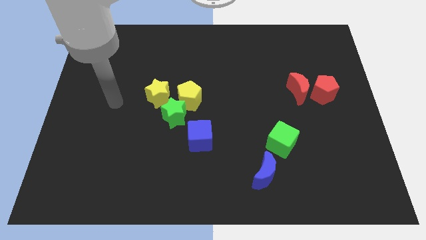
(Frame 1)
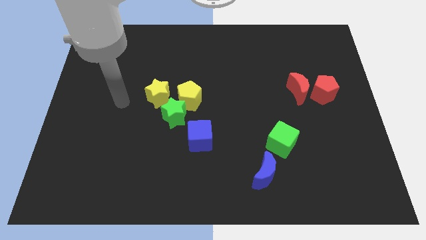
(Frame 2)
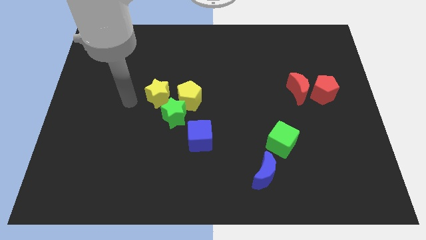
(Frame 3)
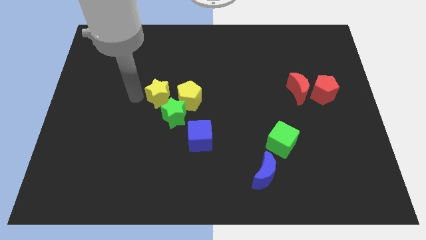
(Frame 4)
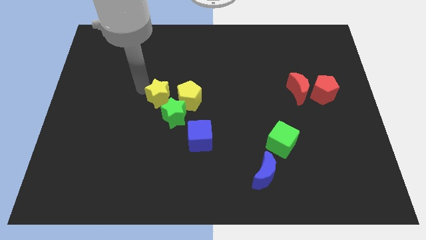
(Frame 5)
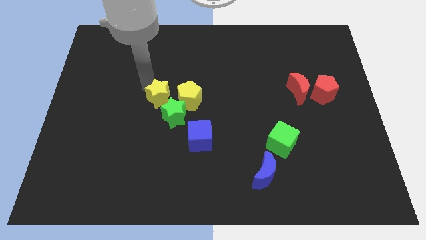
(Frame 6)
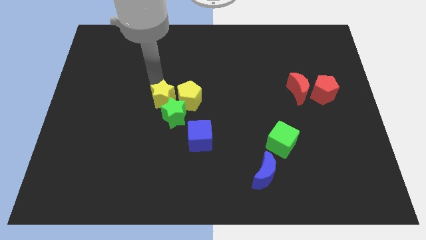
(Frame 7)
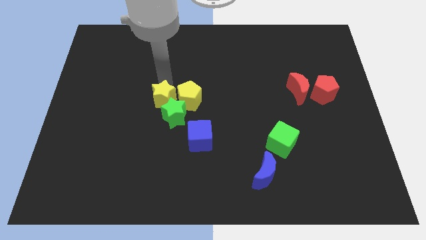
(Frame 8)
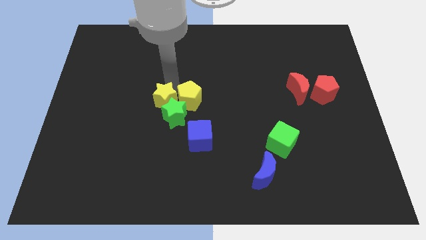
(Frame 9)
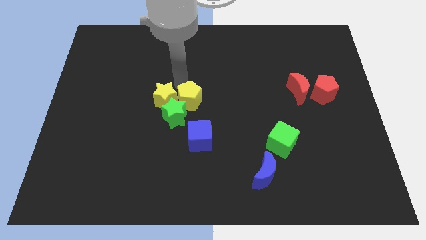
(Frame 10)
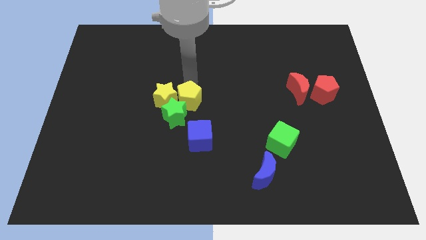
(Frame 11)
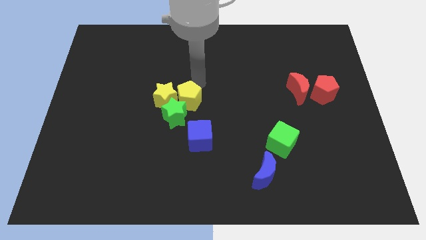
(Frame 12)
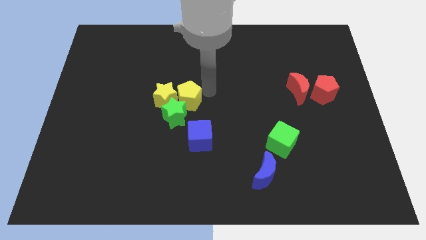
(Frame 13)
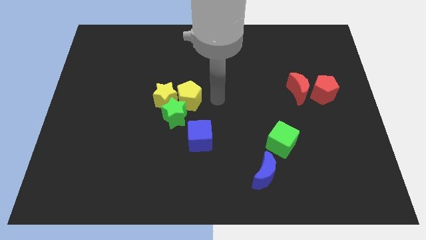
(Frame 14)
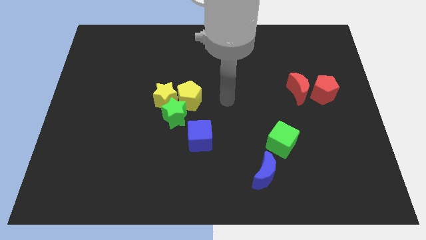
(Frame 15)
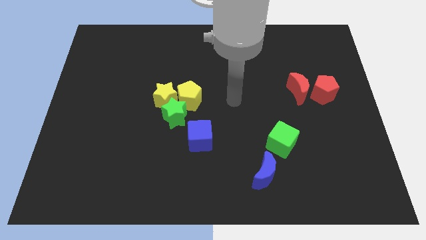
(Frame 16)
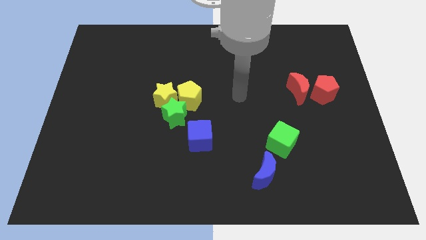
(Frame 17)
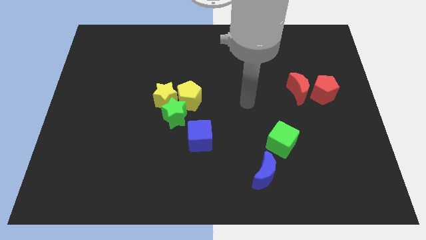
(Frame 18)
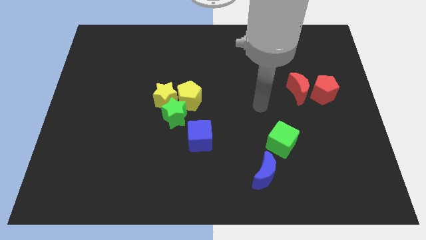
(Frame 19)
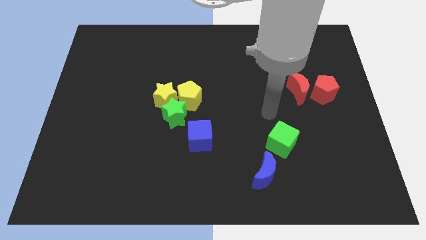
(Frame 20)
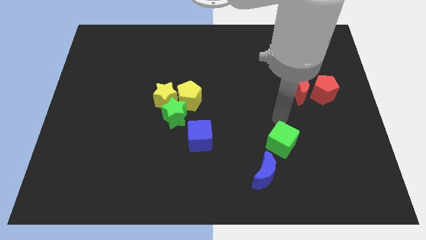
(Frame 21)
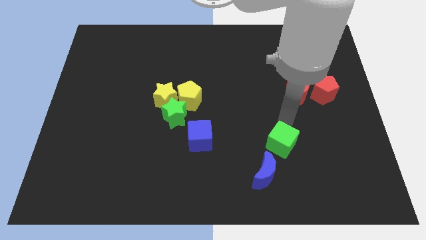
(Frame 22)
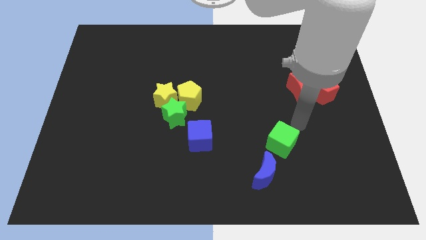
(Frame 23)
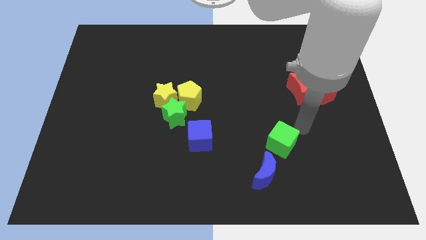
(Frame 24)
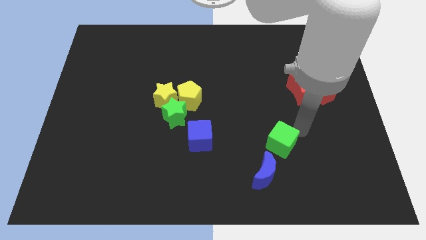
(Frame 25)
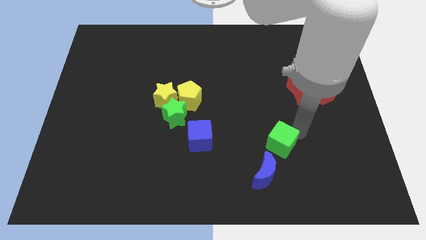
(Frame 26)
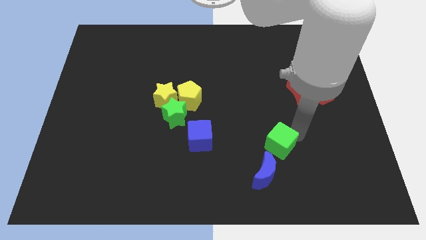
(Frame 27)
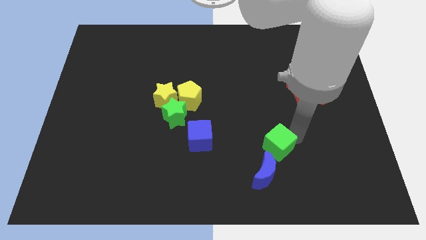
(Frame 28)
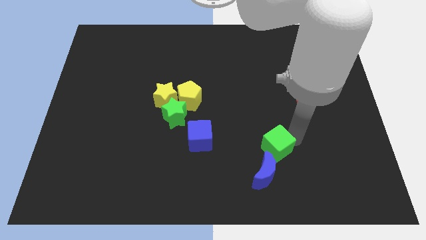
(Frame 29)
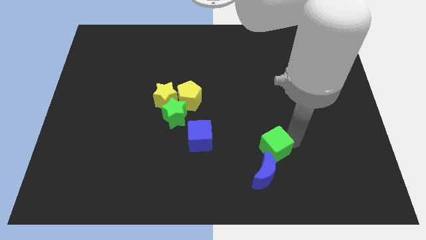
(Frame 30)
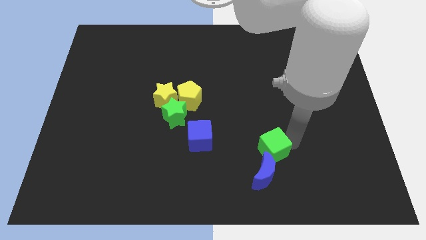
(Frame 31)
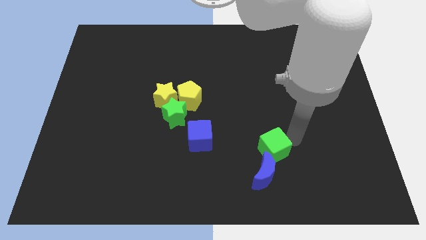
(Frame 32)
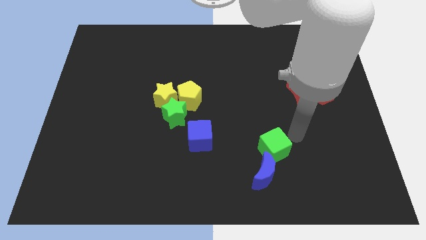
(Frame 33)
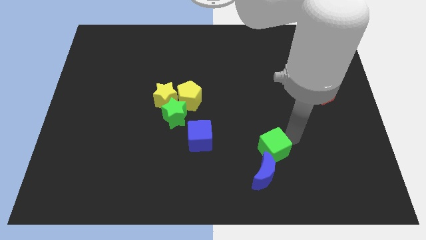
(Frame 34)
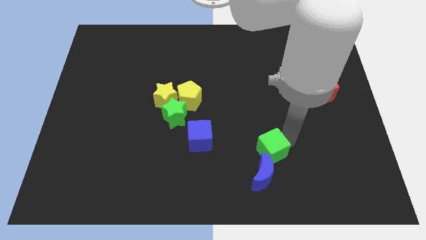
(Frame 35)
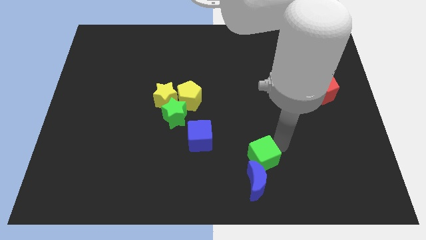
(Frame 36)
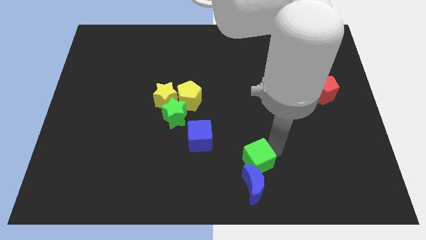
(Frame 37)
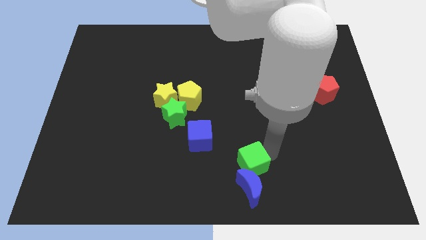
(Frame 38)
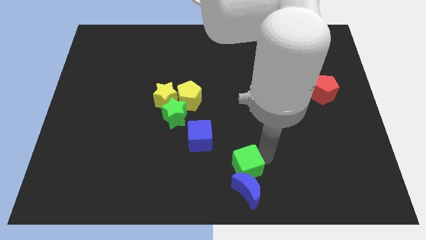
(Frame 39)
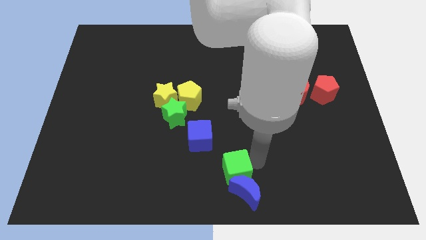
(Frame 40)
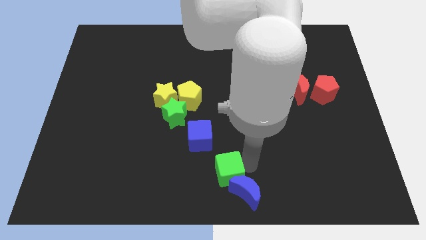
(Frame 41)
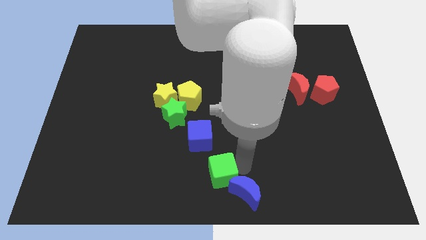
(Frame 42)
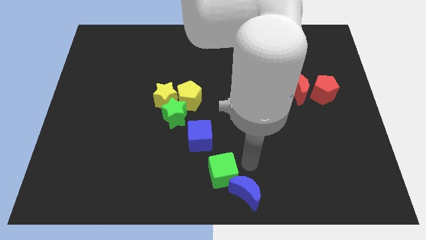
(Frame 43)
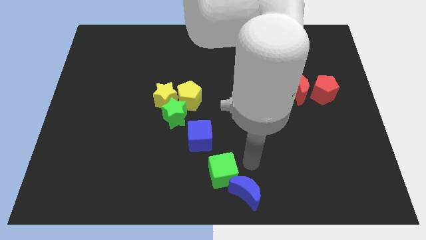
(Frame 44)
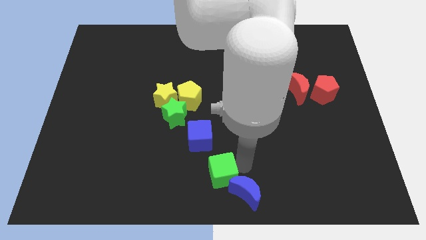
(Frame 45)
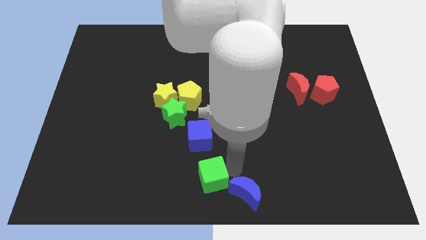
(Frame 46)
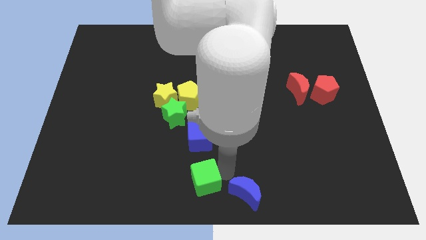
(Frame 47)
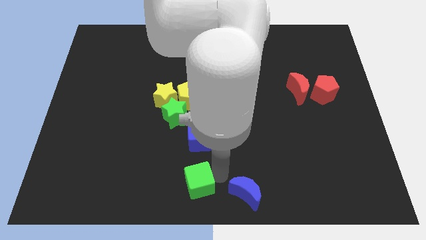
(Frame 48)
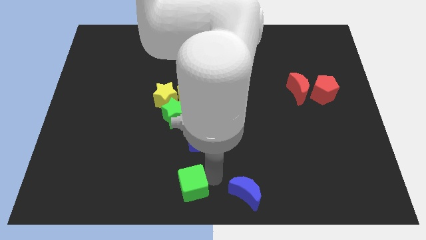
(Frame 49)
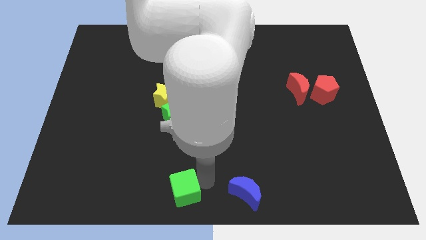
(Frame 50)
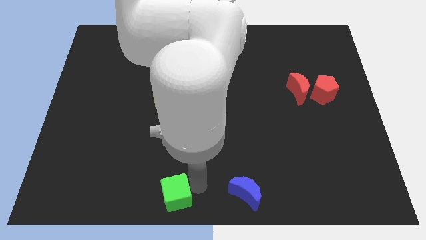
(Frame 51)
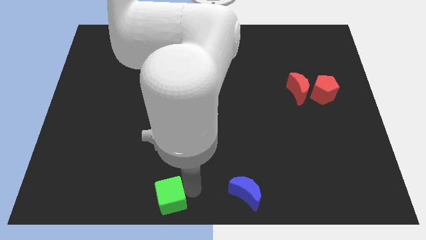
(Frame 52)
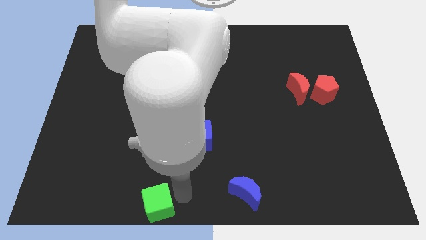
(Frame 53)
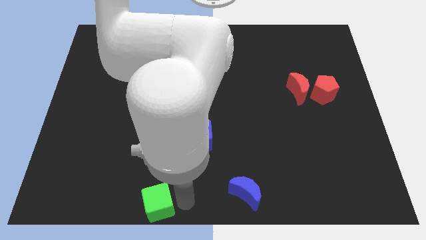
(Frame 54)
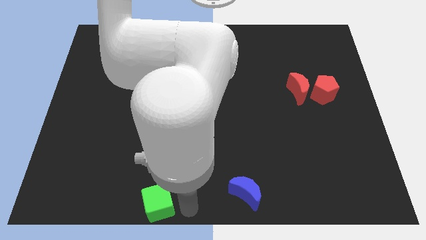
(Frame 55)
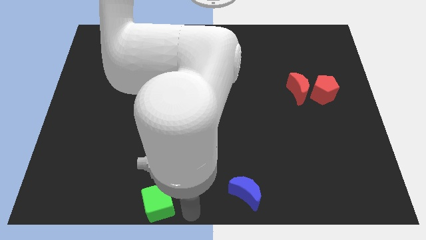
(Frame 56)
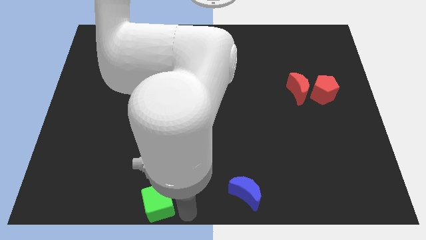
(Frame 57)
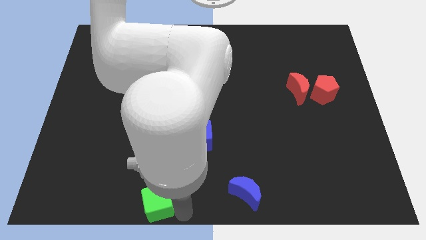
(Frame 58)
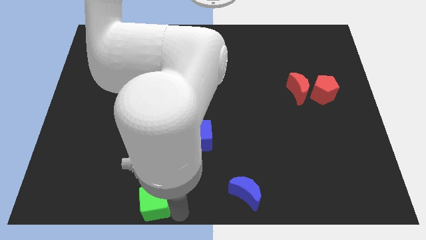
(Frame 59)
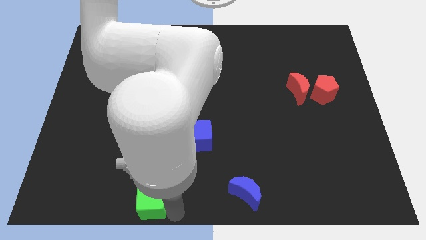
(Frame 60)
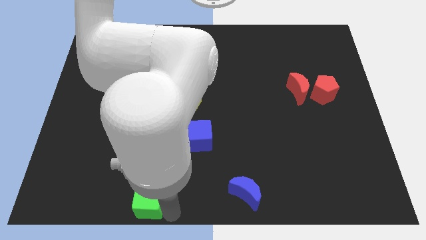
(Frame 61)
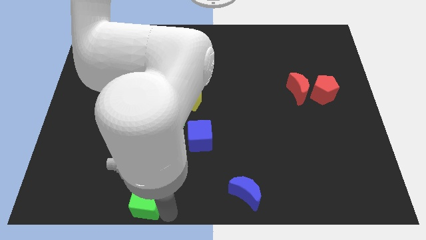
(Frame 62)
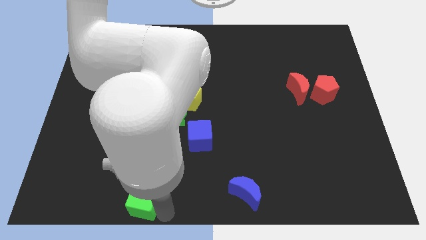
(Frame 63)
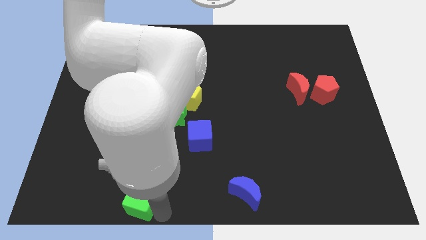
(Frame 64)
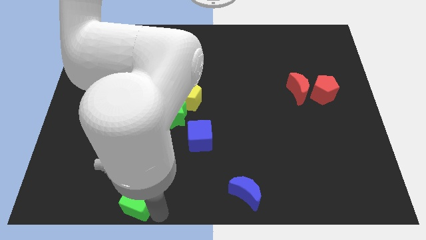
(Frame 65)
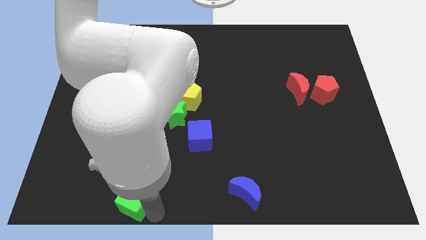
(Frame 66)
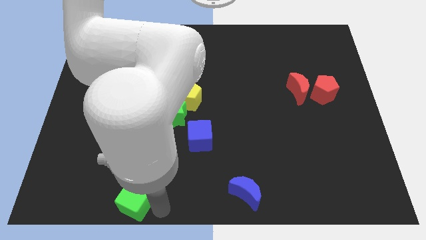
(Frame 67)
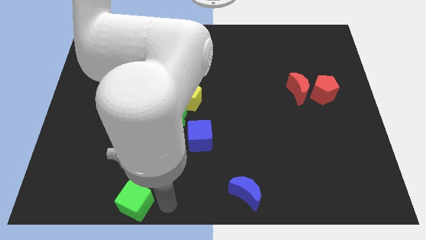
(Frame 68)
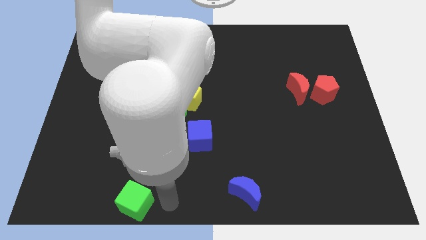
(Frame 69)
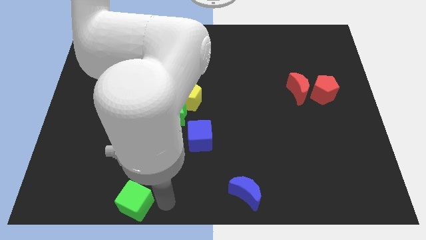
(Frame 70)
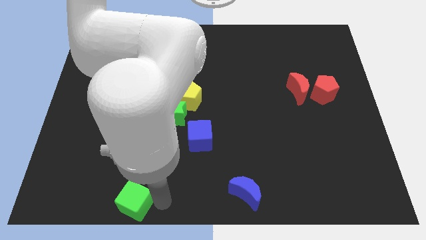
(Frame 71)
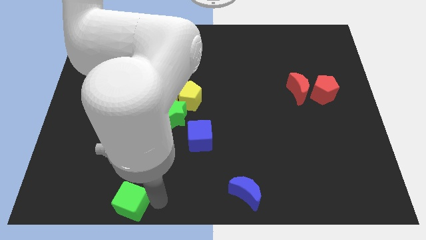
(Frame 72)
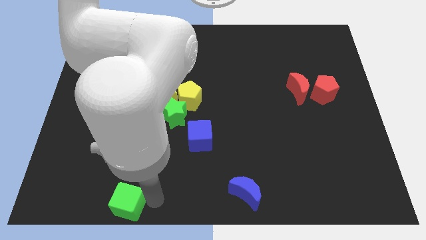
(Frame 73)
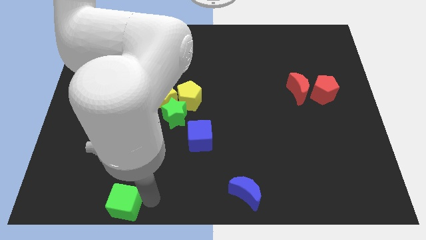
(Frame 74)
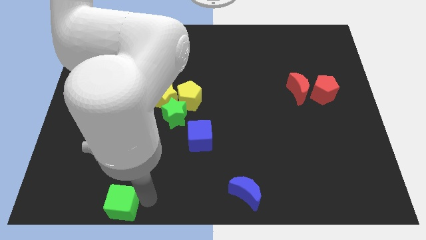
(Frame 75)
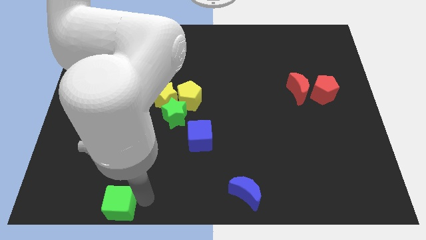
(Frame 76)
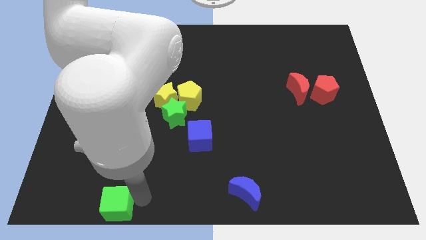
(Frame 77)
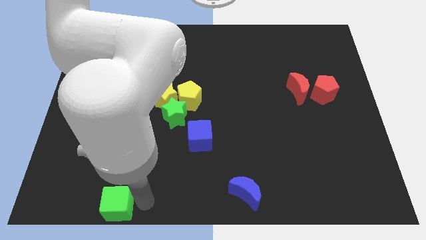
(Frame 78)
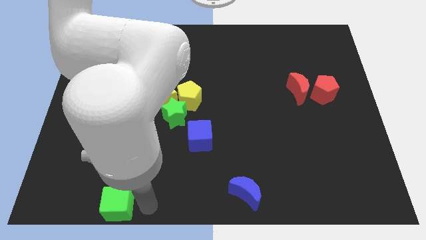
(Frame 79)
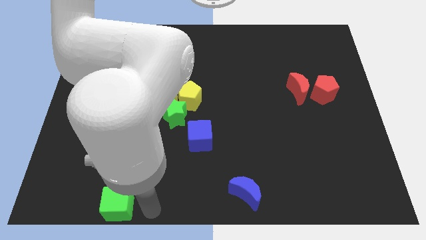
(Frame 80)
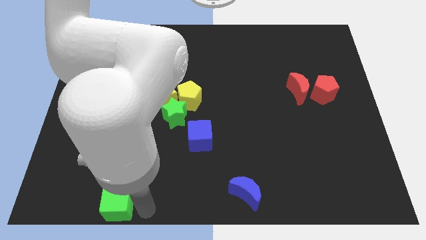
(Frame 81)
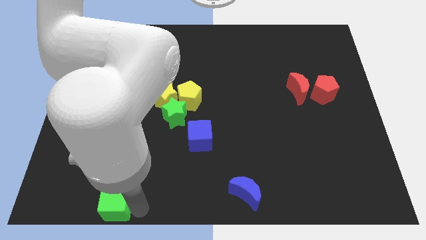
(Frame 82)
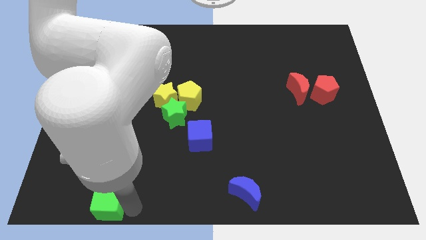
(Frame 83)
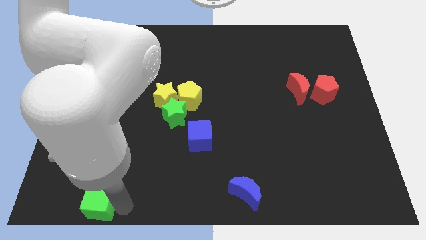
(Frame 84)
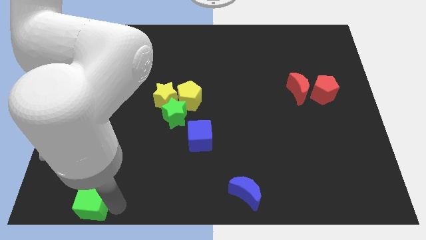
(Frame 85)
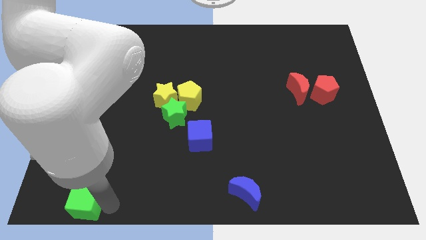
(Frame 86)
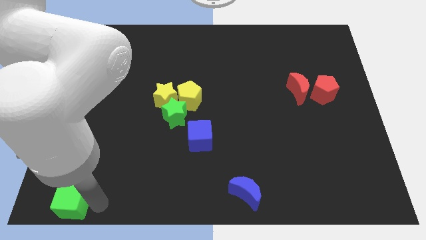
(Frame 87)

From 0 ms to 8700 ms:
slide the green cube to the bottom left
